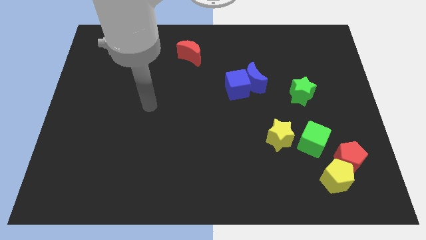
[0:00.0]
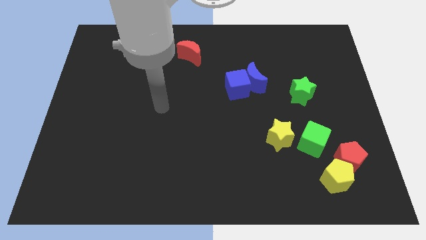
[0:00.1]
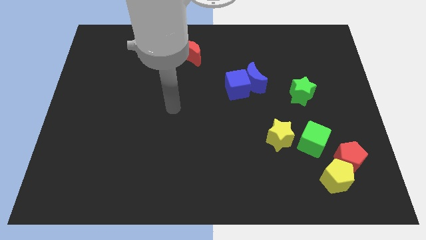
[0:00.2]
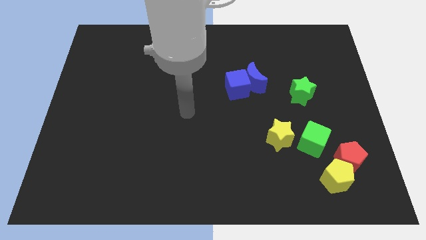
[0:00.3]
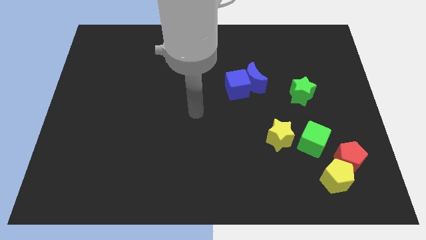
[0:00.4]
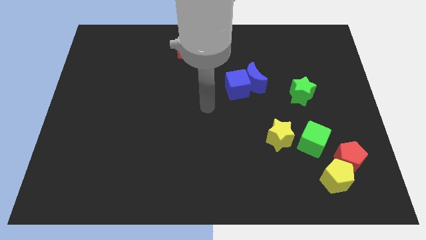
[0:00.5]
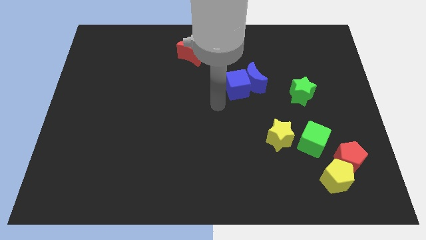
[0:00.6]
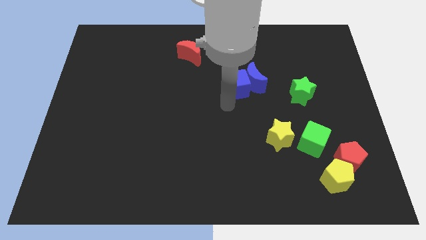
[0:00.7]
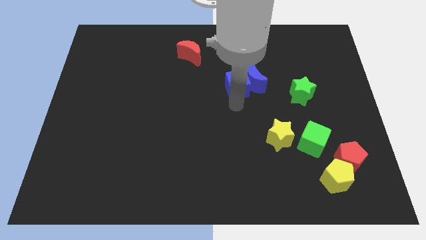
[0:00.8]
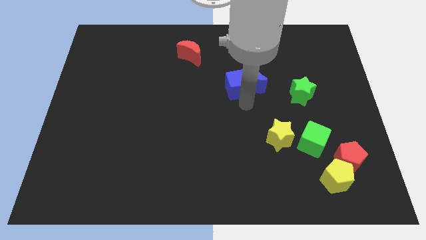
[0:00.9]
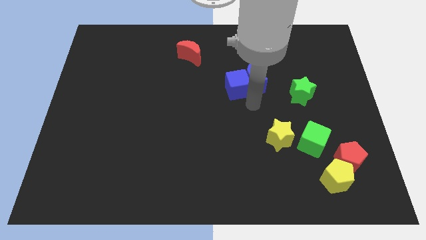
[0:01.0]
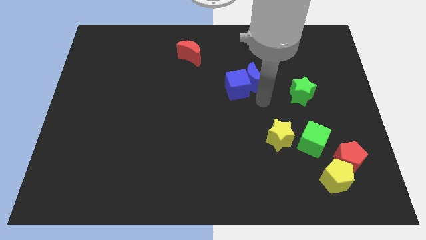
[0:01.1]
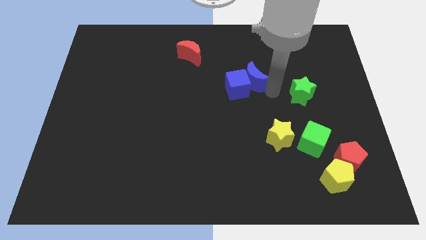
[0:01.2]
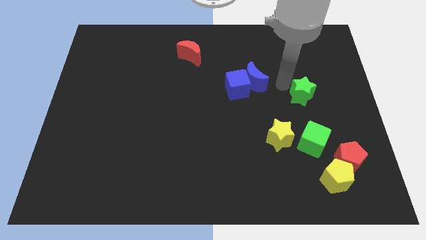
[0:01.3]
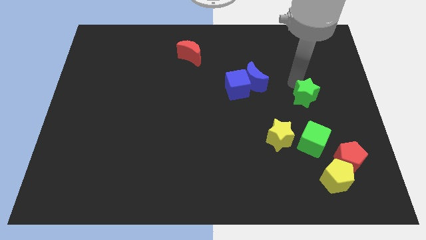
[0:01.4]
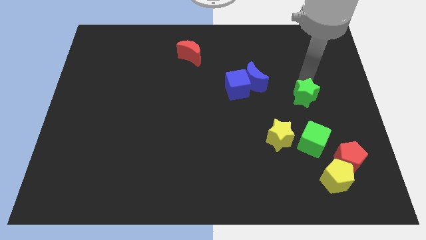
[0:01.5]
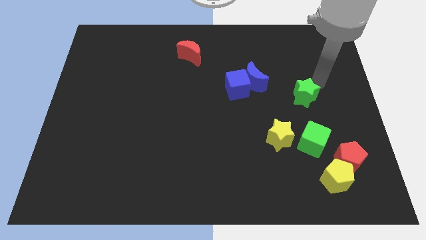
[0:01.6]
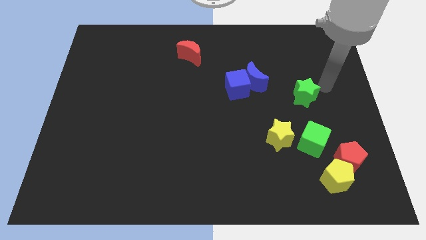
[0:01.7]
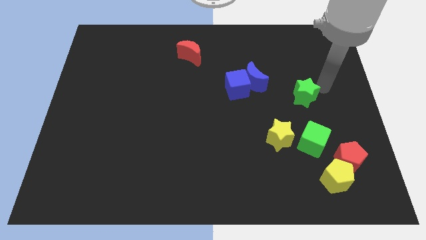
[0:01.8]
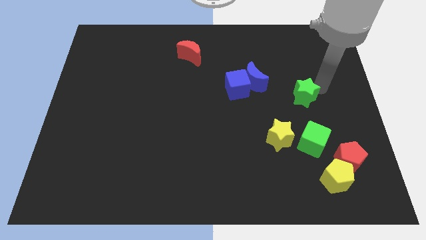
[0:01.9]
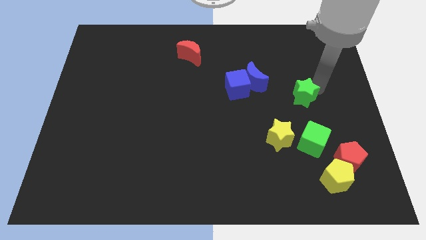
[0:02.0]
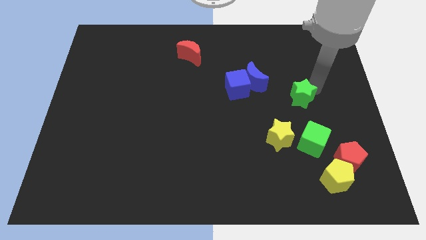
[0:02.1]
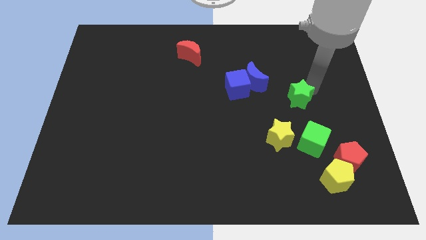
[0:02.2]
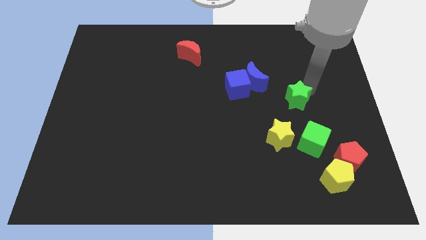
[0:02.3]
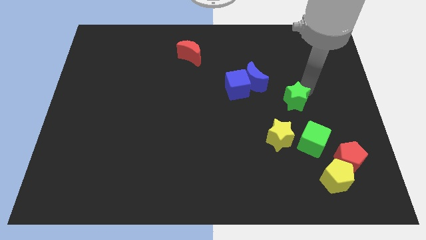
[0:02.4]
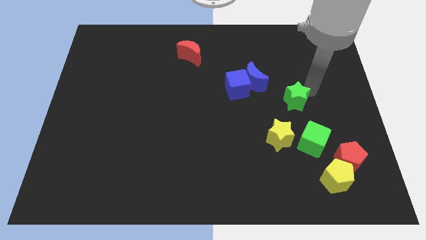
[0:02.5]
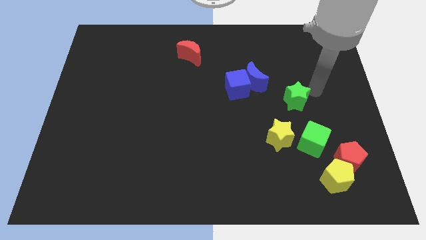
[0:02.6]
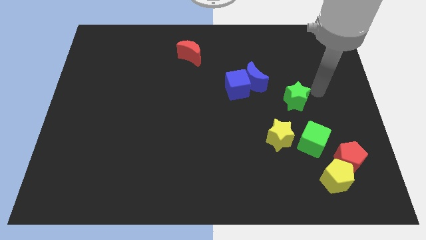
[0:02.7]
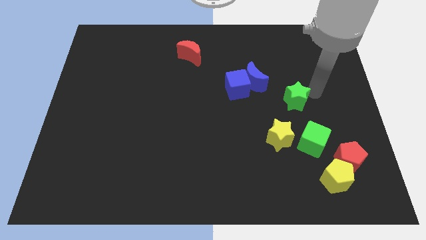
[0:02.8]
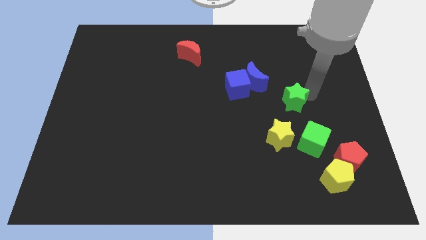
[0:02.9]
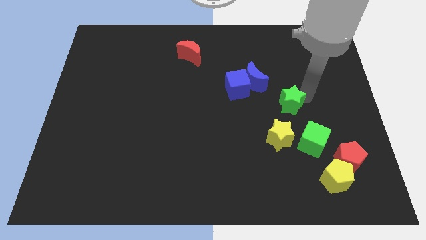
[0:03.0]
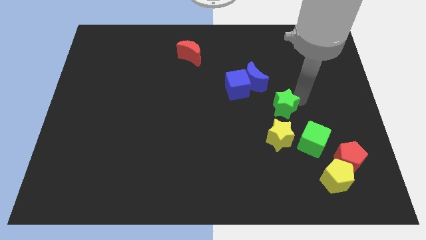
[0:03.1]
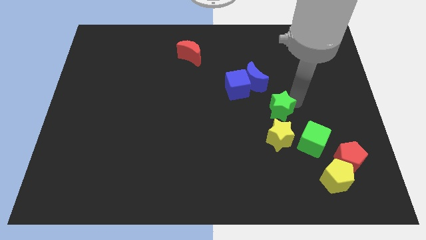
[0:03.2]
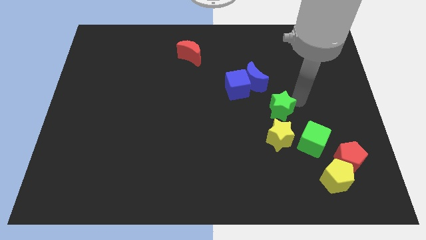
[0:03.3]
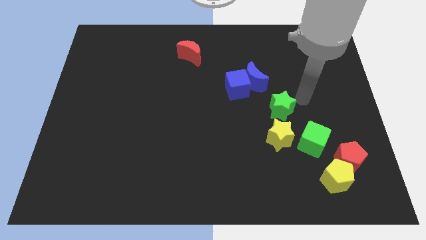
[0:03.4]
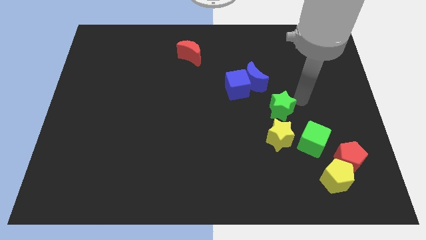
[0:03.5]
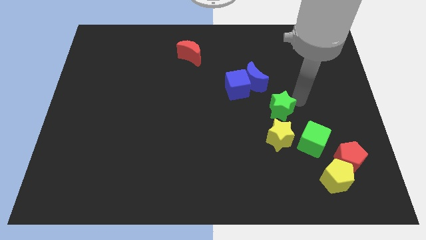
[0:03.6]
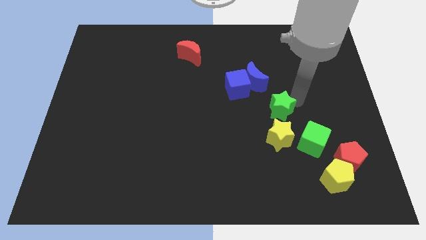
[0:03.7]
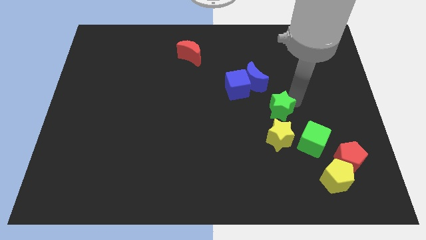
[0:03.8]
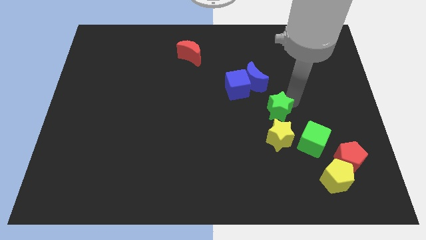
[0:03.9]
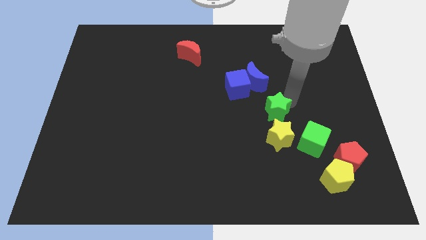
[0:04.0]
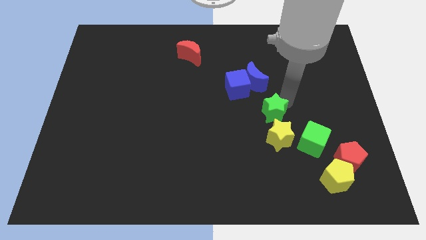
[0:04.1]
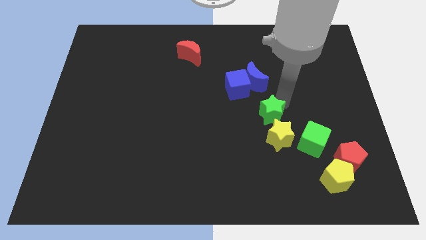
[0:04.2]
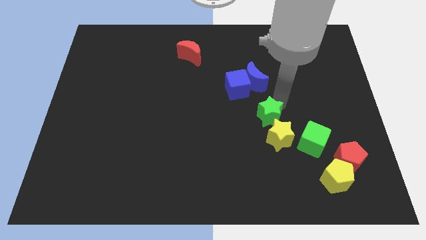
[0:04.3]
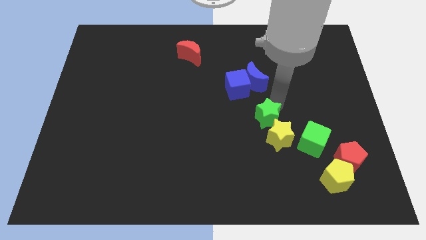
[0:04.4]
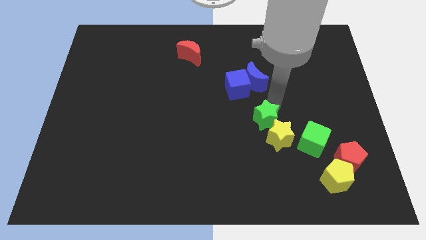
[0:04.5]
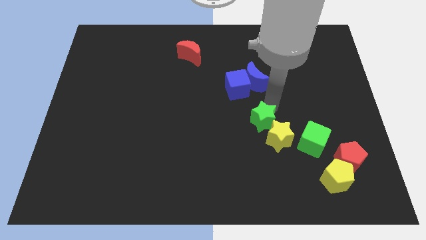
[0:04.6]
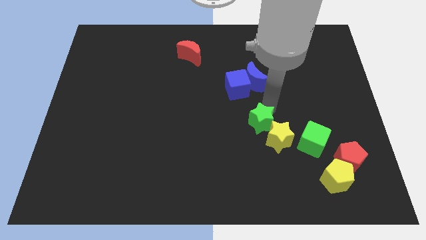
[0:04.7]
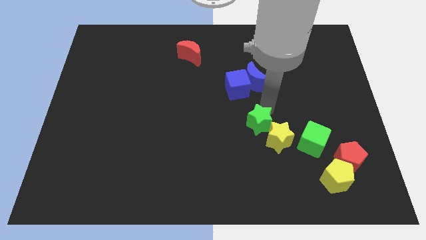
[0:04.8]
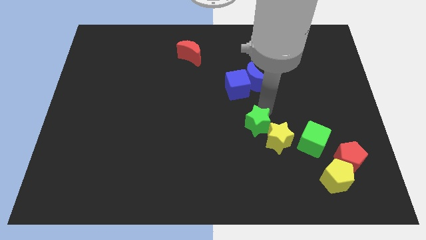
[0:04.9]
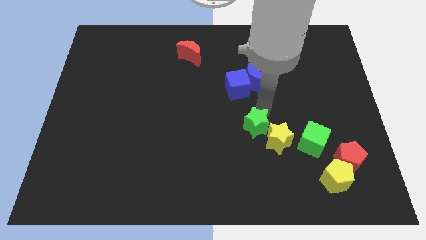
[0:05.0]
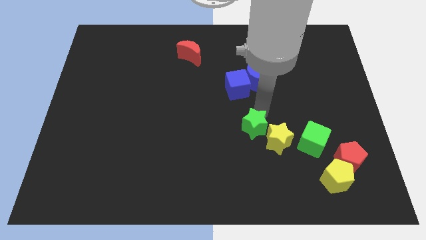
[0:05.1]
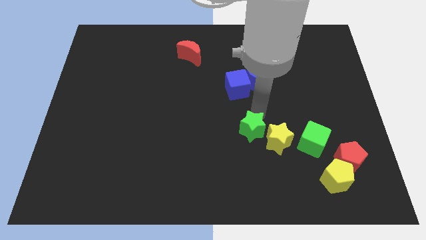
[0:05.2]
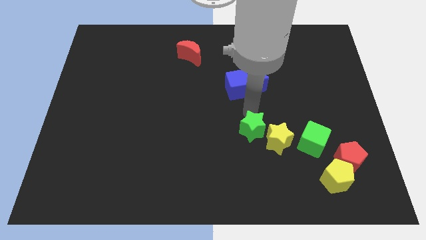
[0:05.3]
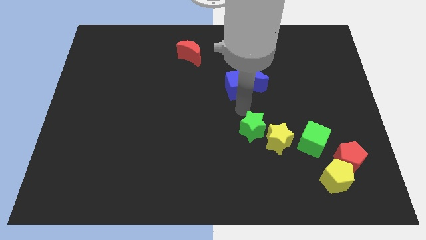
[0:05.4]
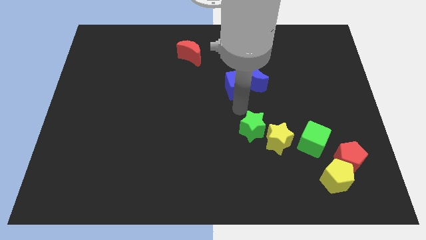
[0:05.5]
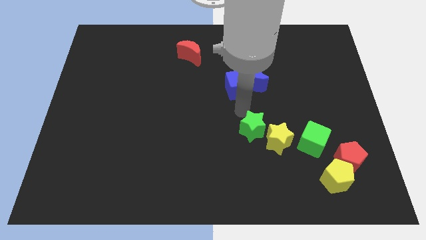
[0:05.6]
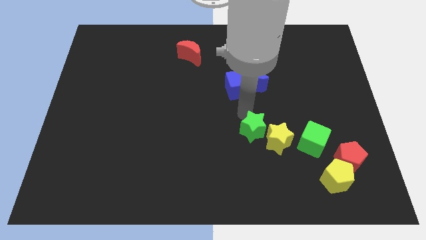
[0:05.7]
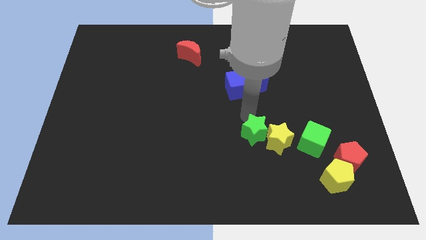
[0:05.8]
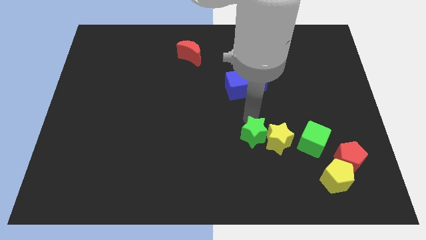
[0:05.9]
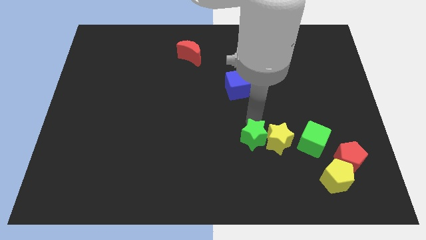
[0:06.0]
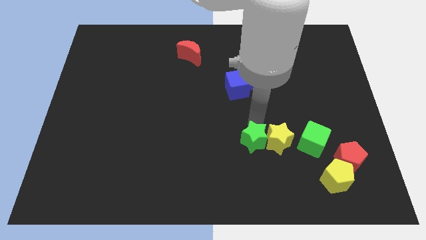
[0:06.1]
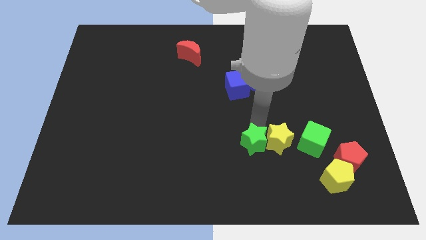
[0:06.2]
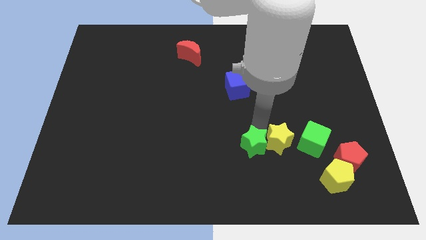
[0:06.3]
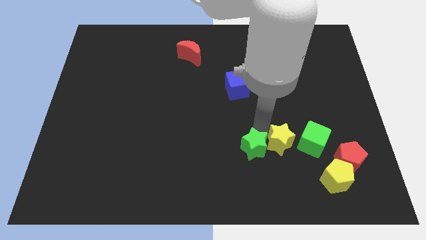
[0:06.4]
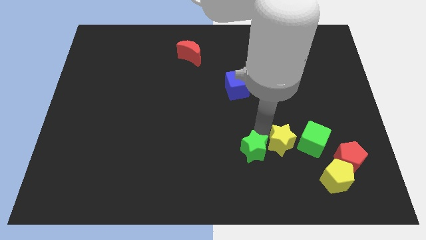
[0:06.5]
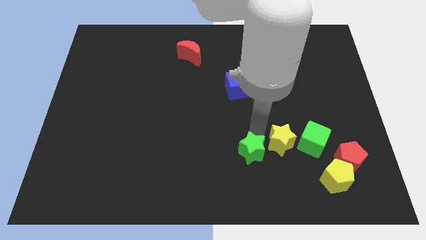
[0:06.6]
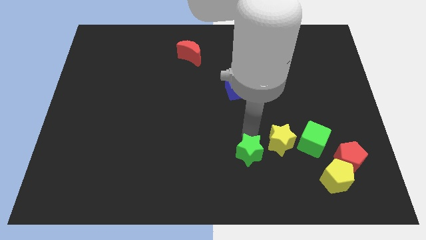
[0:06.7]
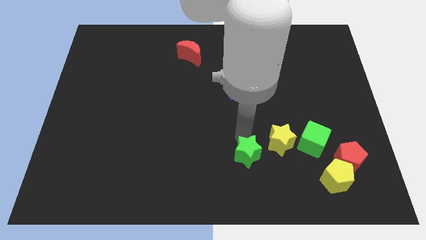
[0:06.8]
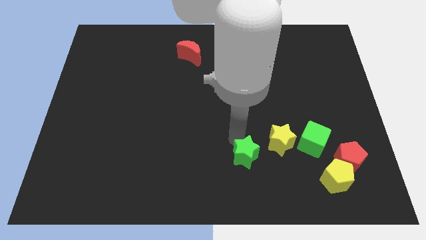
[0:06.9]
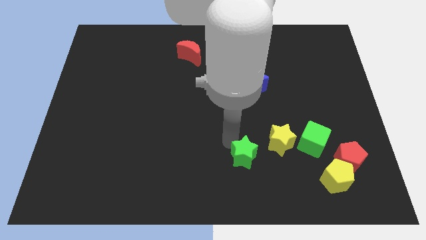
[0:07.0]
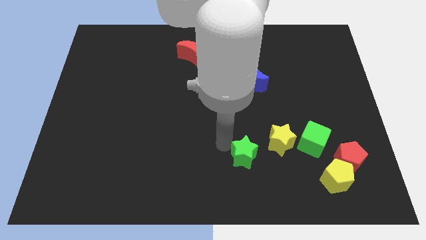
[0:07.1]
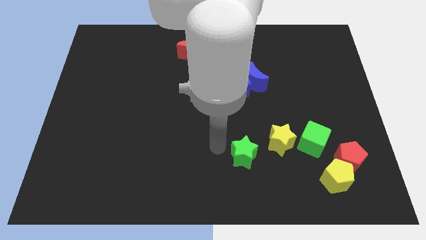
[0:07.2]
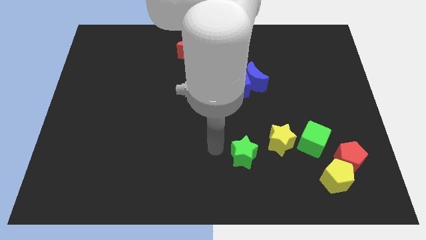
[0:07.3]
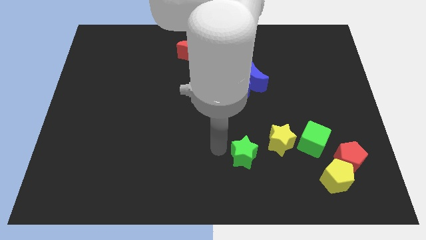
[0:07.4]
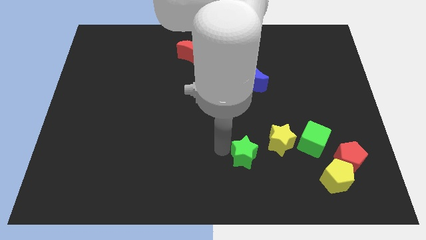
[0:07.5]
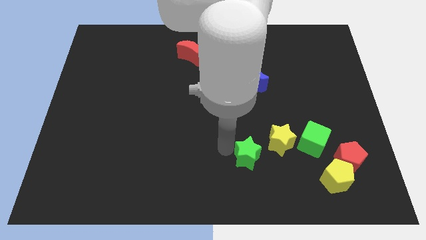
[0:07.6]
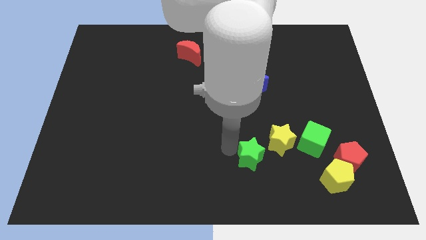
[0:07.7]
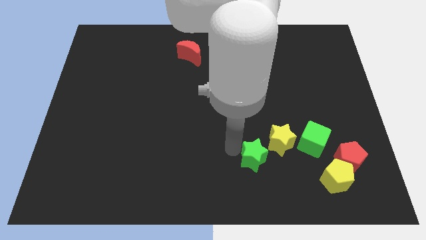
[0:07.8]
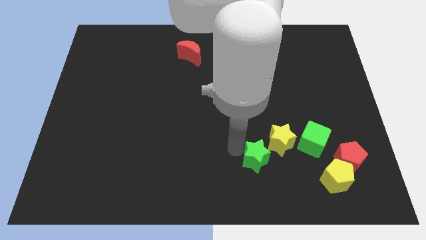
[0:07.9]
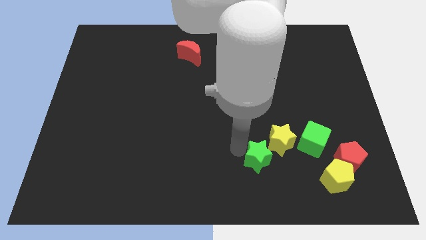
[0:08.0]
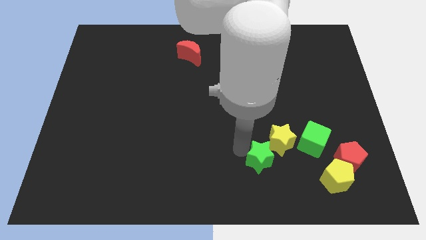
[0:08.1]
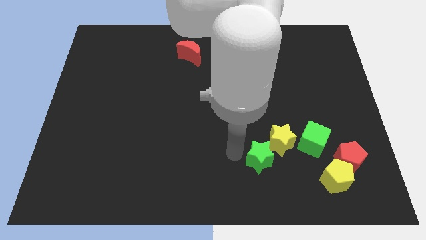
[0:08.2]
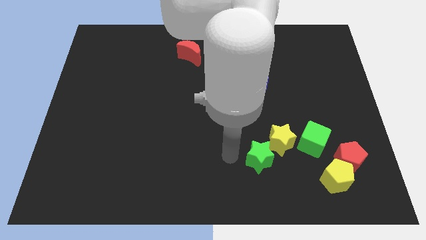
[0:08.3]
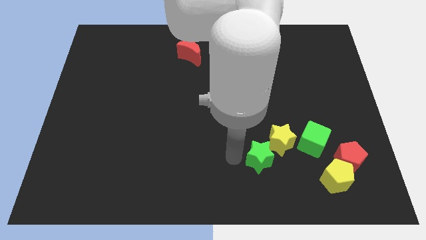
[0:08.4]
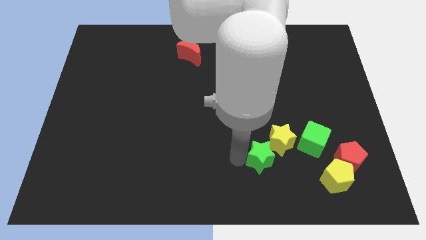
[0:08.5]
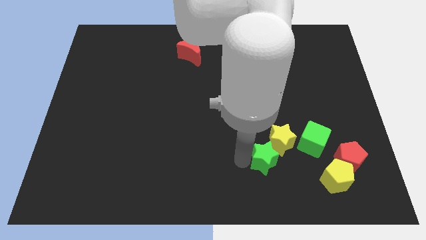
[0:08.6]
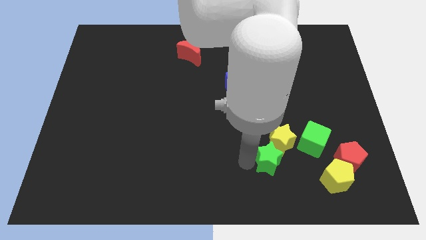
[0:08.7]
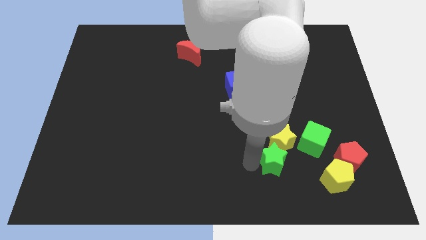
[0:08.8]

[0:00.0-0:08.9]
move the green star to the bottom right side of the yellow star
